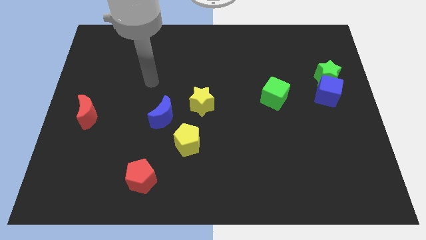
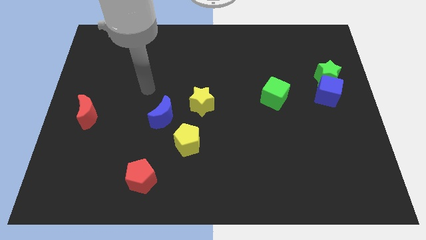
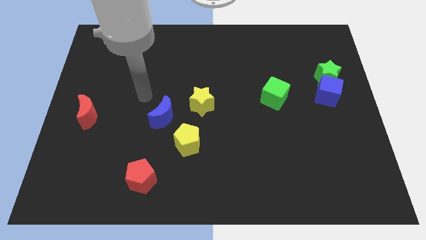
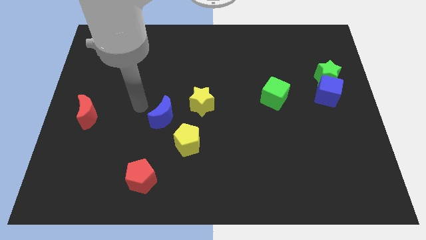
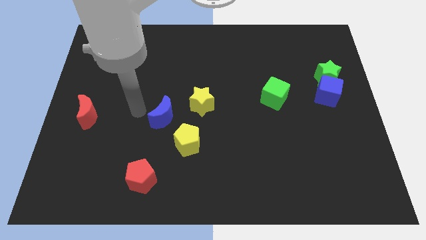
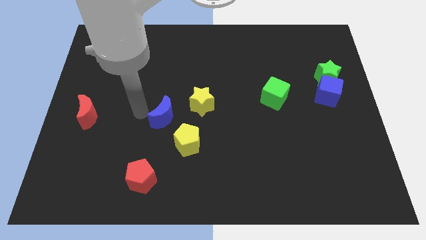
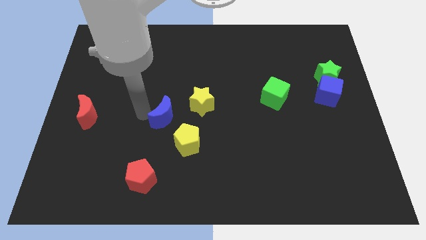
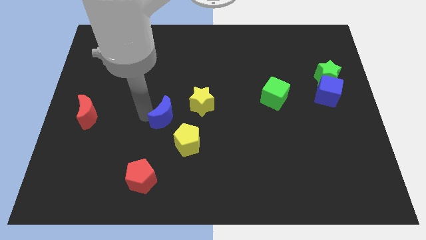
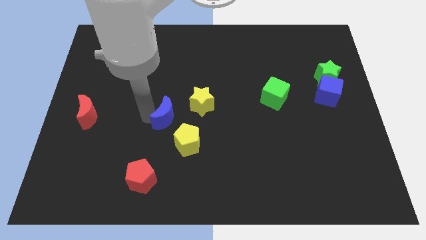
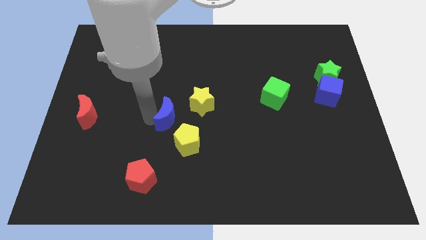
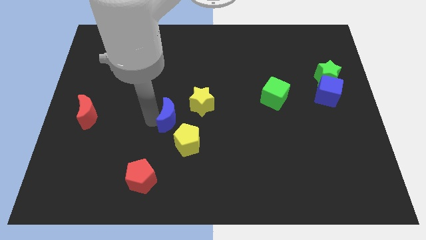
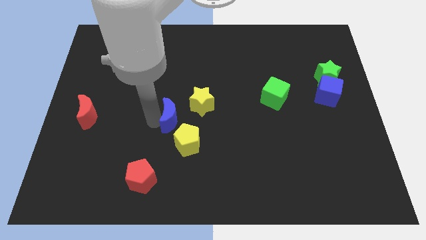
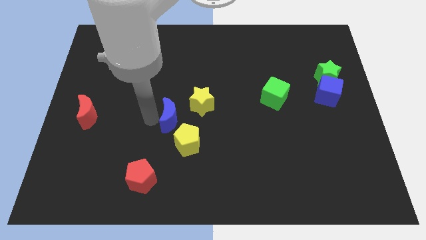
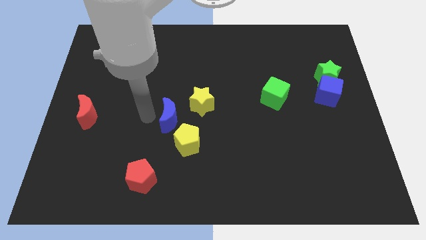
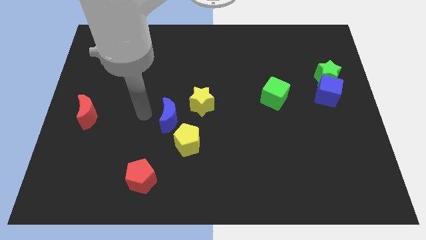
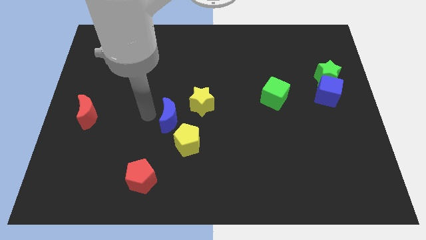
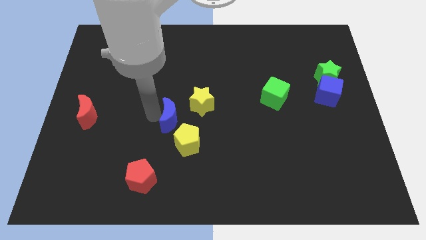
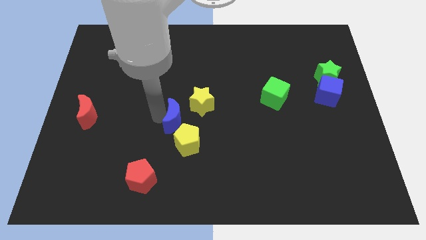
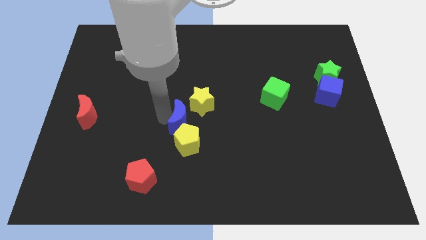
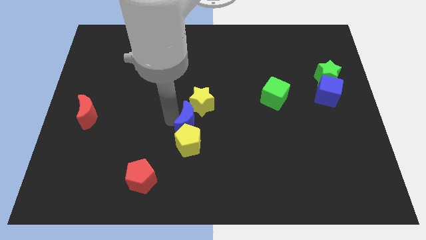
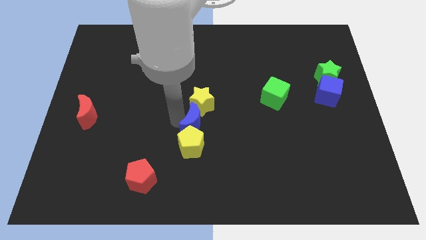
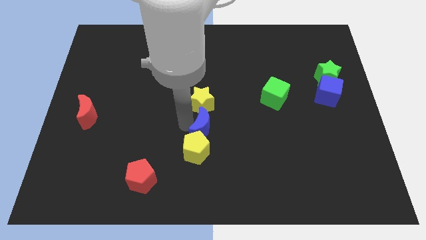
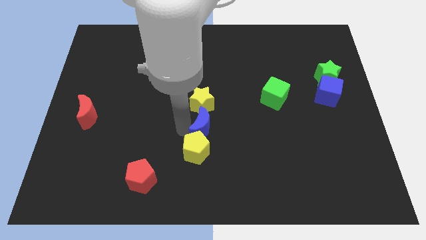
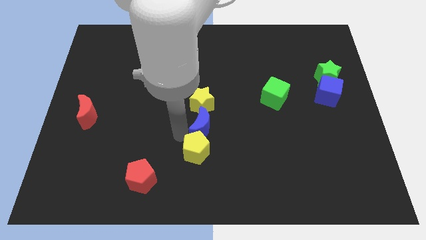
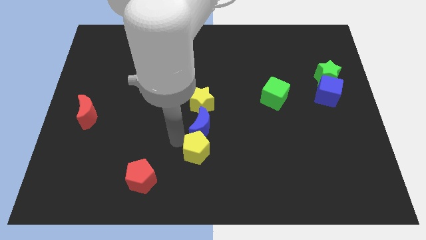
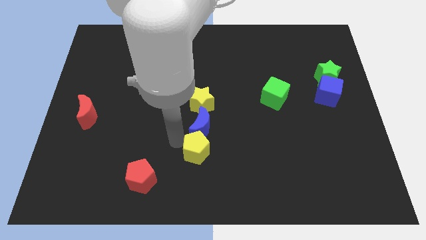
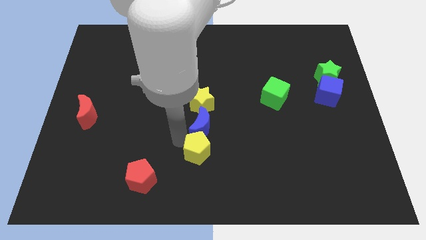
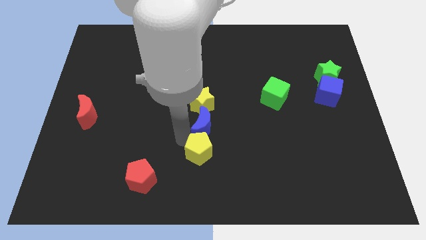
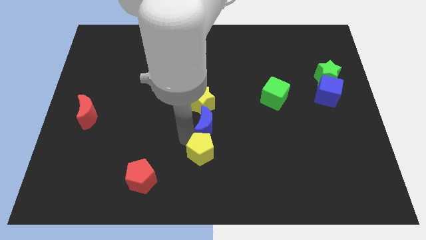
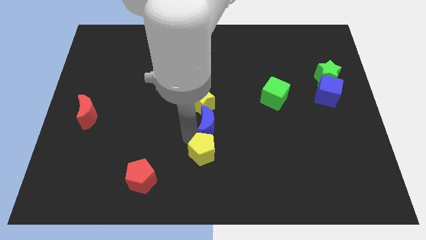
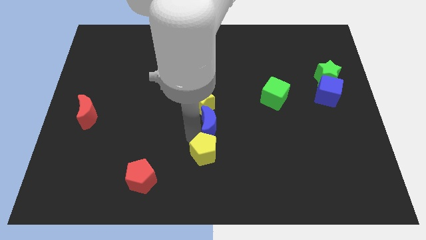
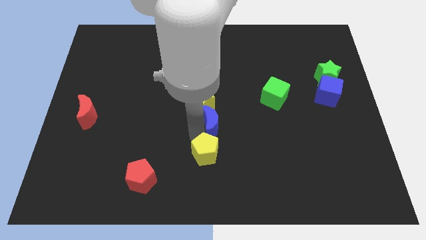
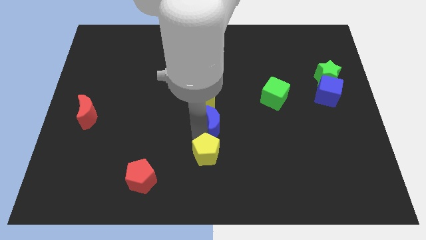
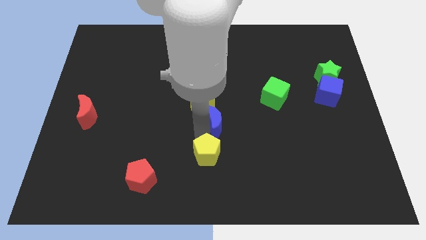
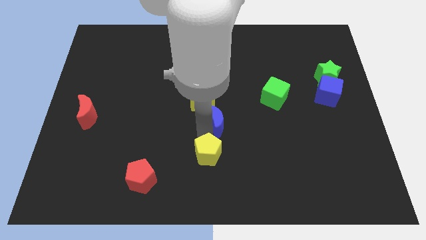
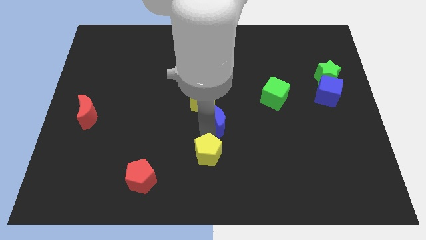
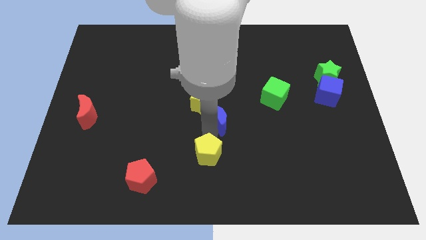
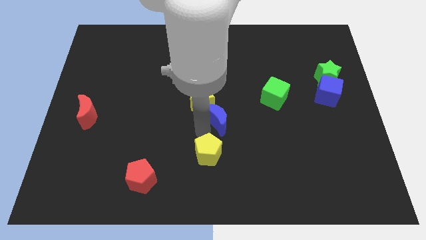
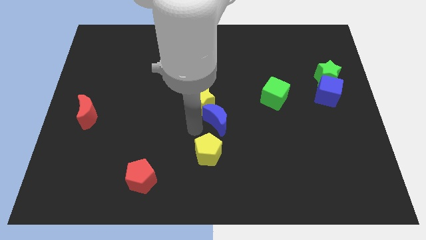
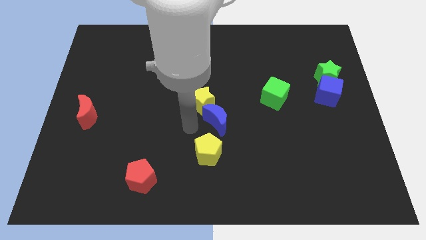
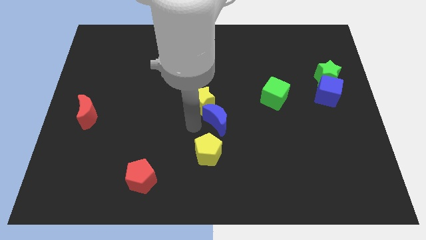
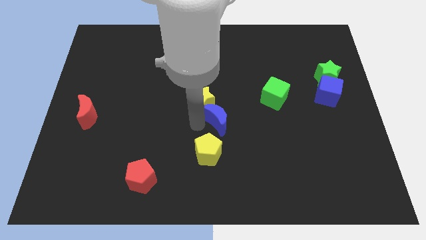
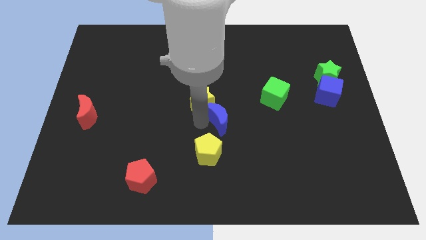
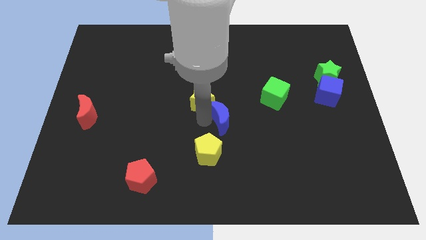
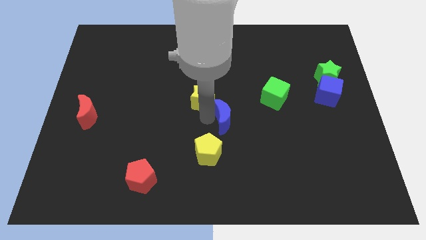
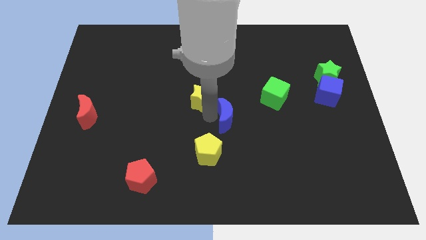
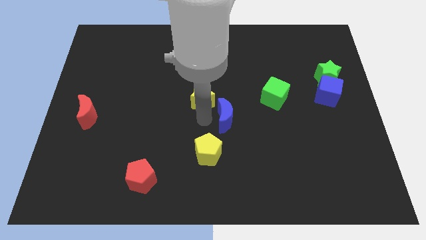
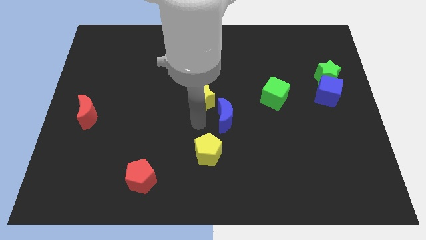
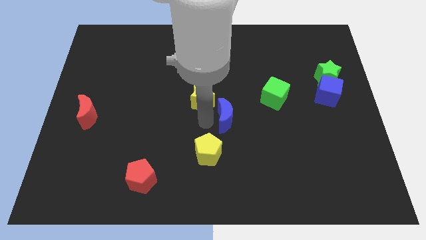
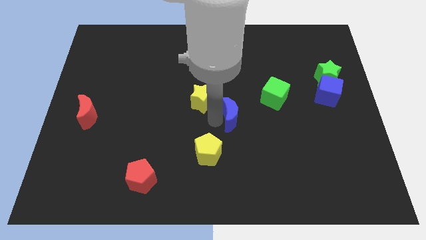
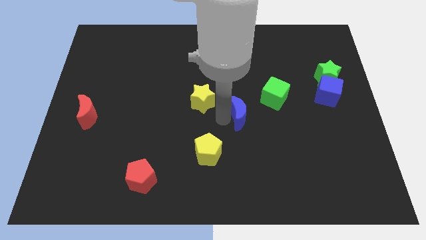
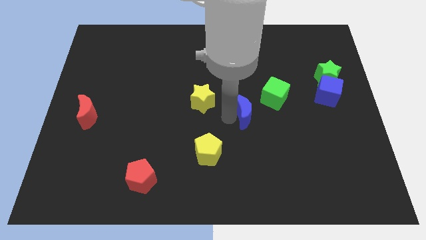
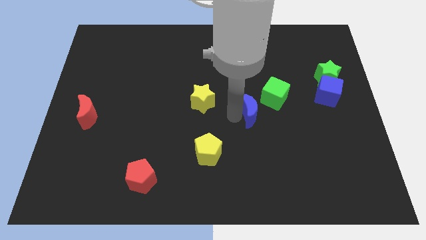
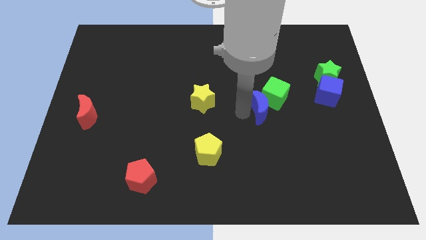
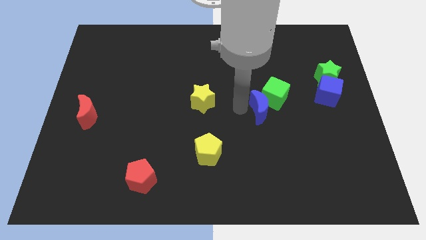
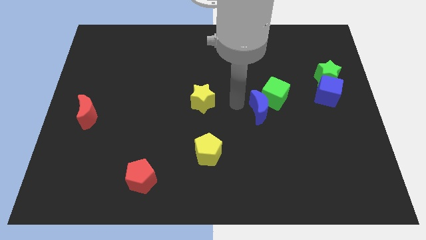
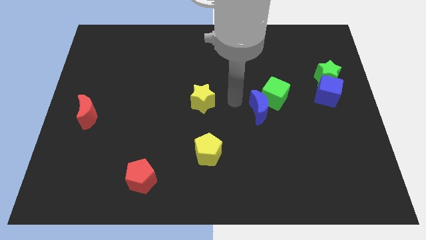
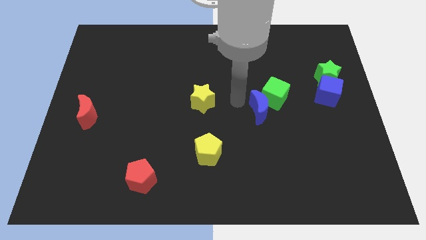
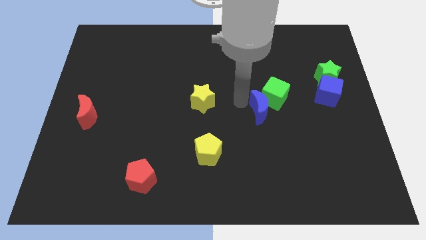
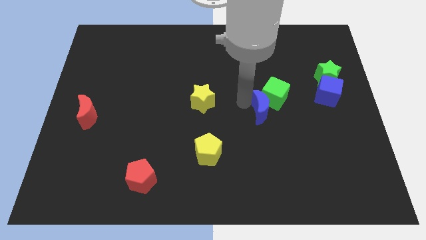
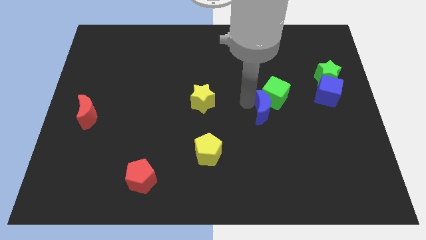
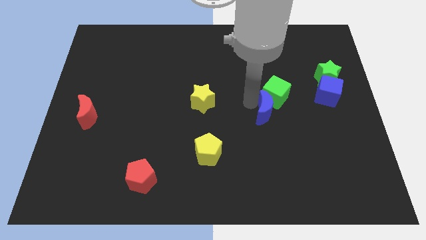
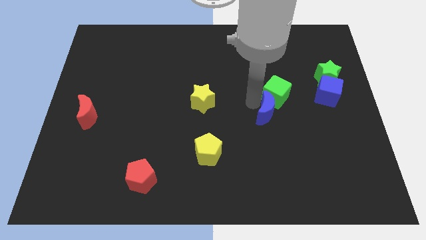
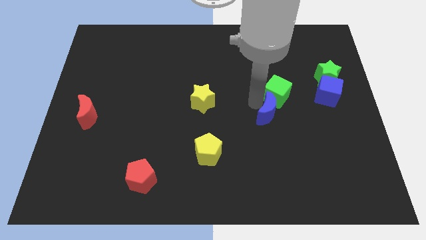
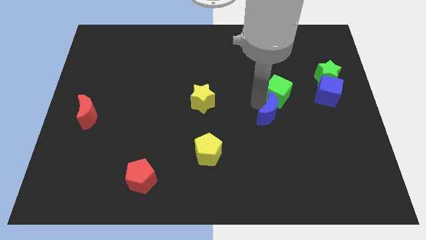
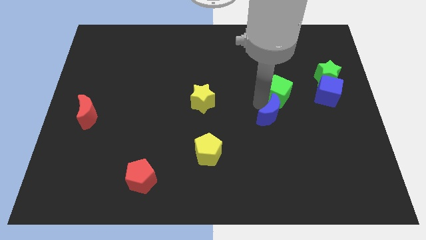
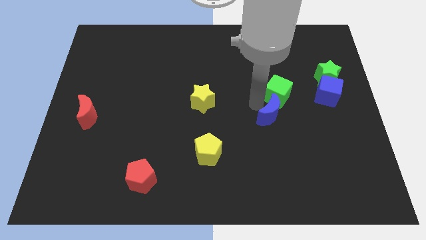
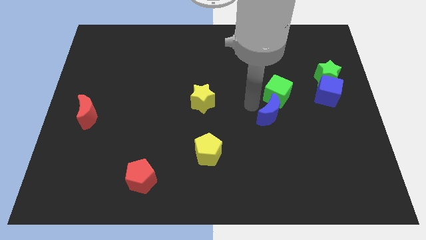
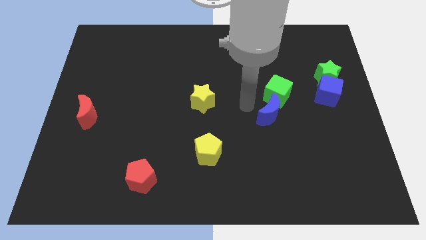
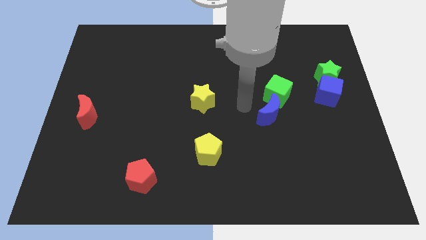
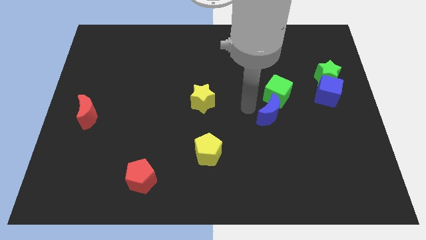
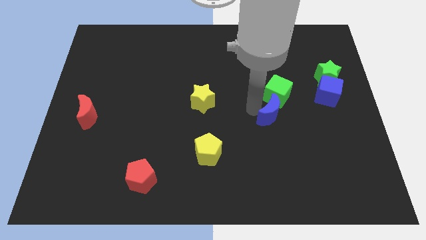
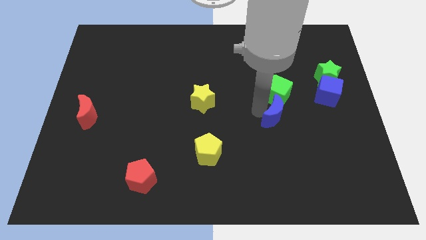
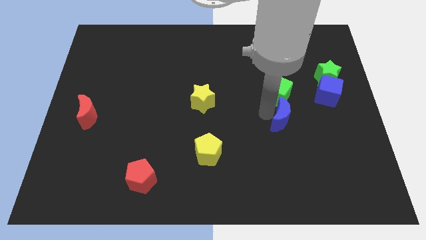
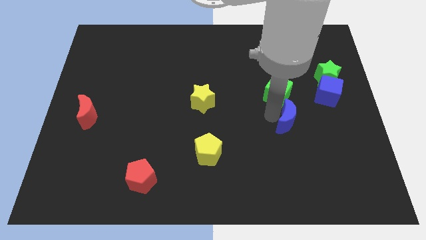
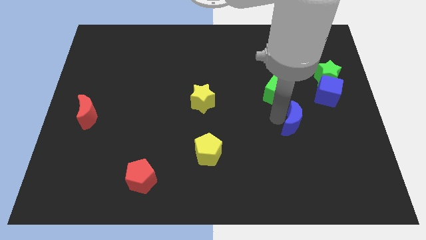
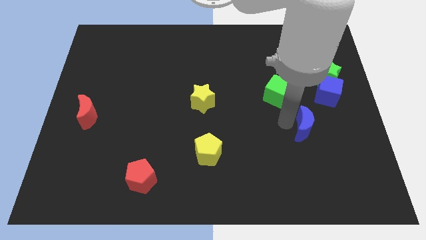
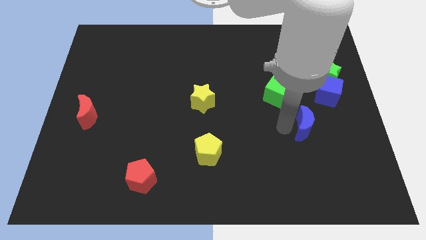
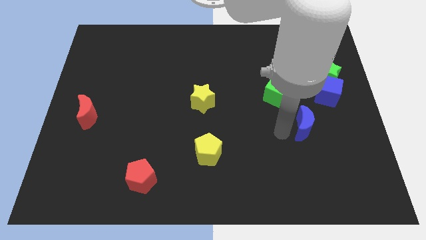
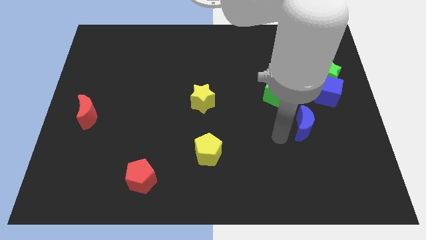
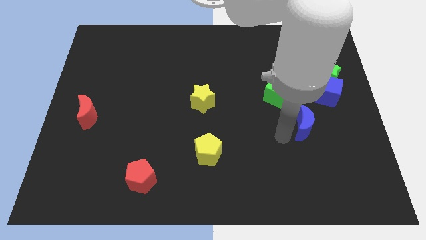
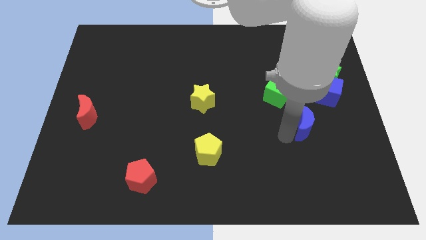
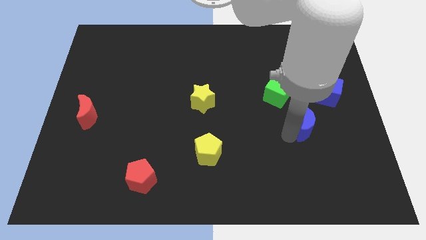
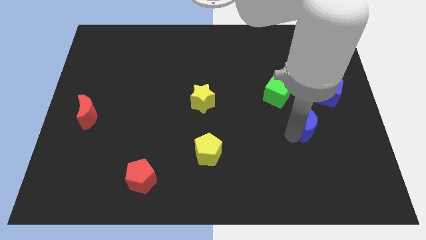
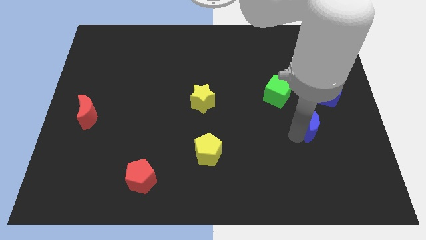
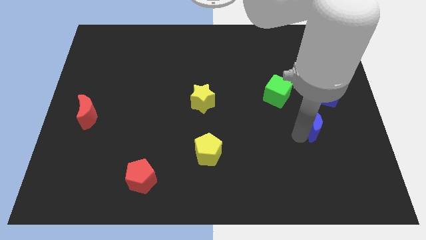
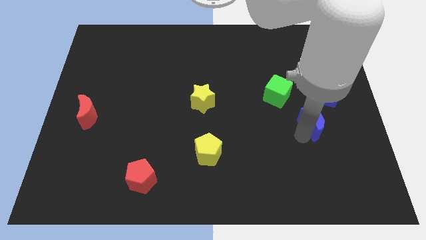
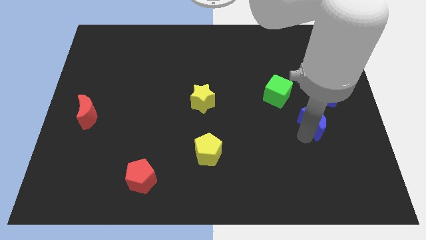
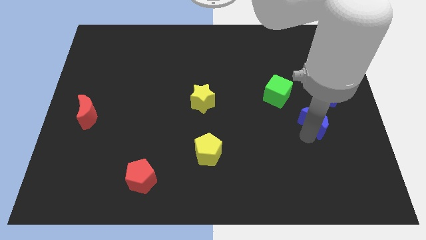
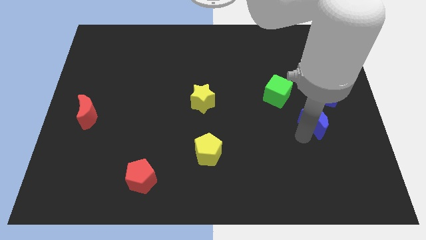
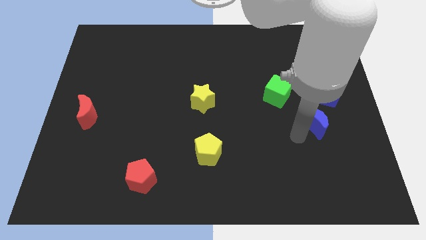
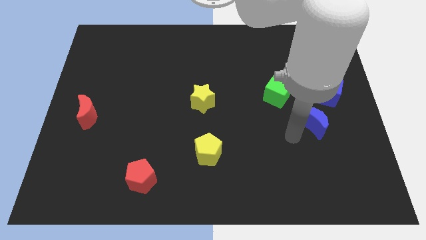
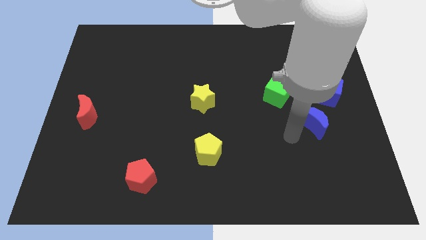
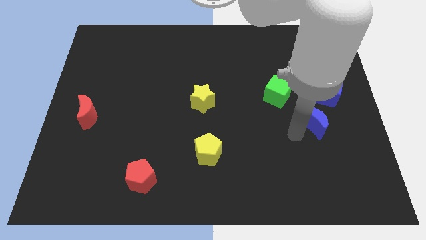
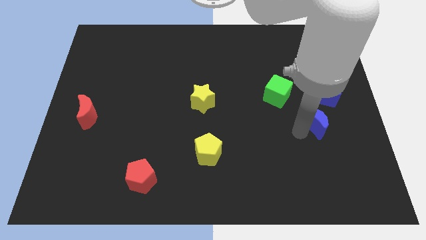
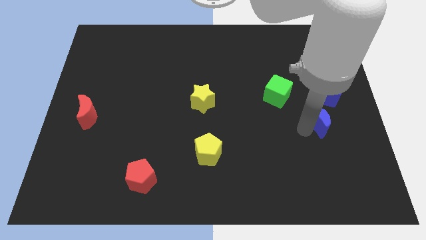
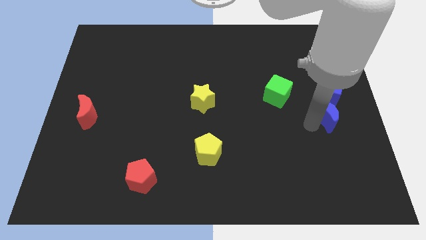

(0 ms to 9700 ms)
move the blue moon to the right side
